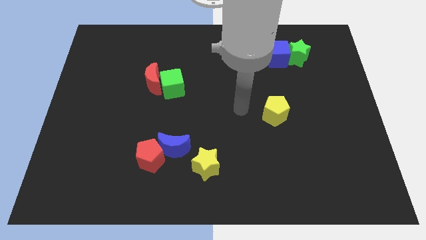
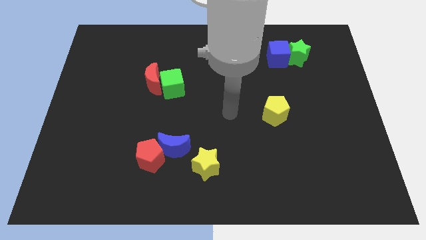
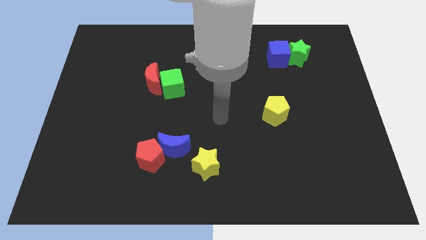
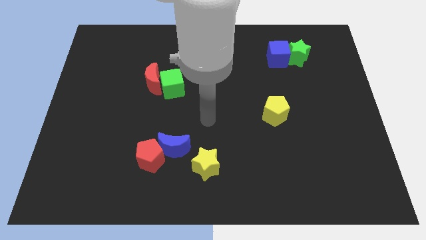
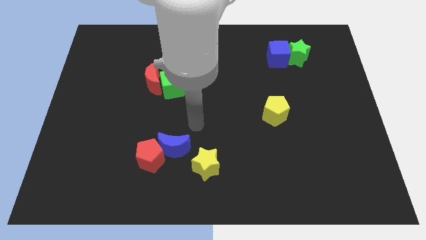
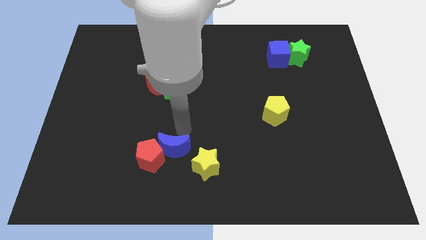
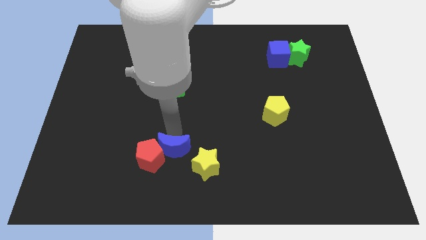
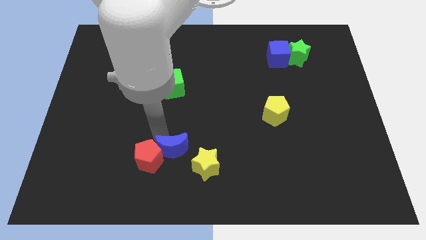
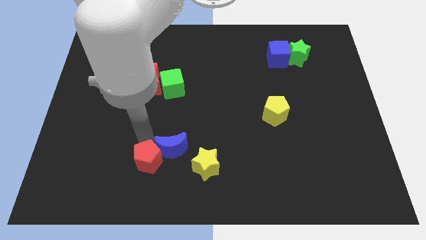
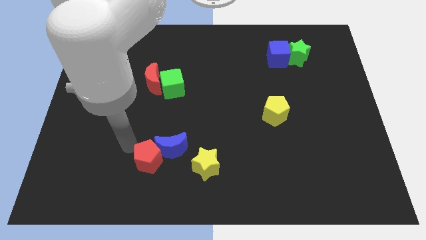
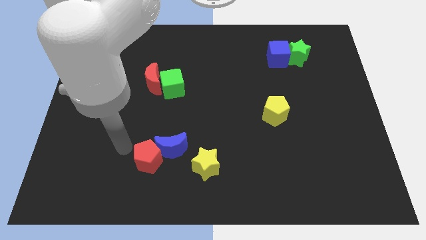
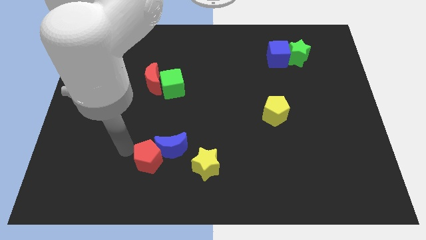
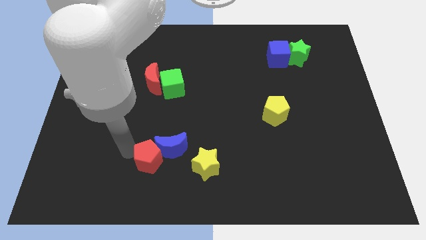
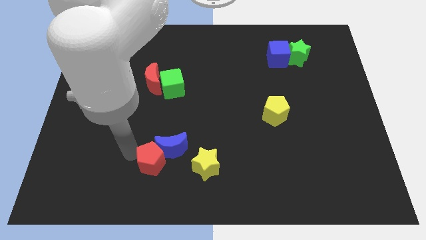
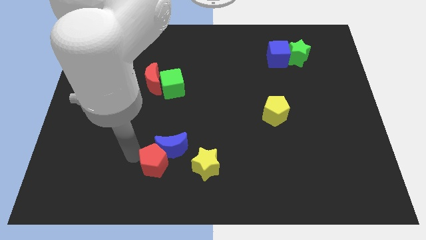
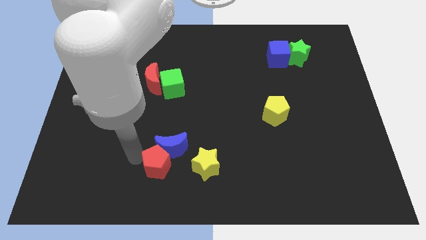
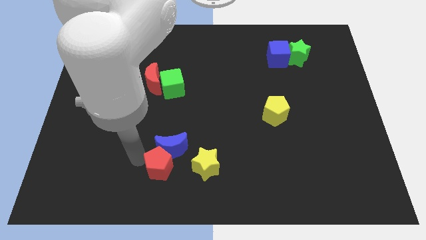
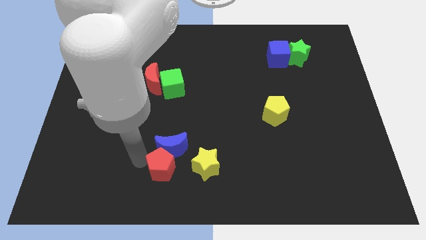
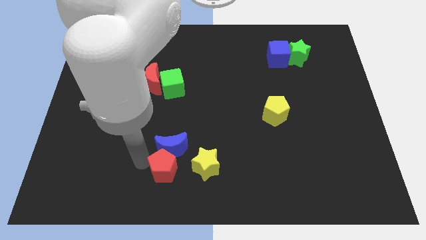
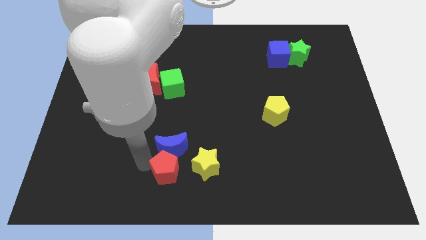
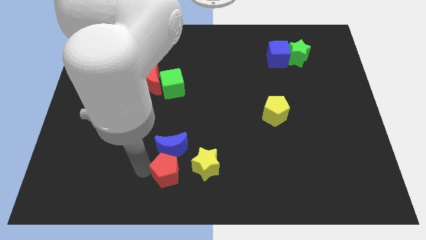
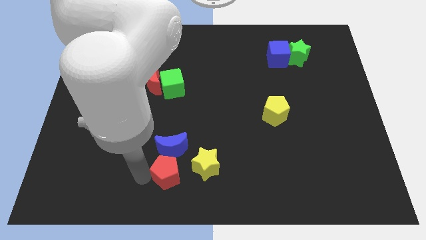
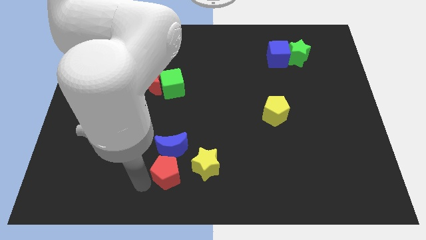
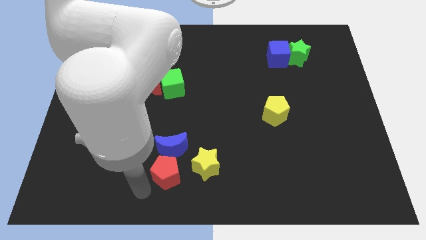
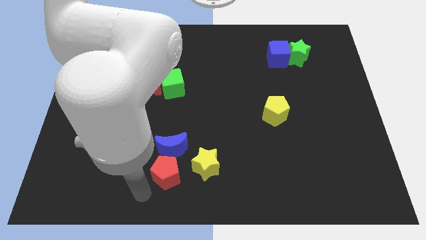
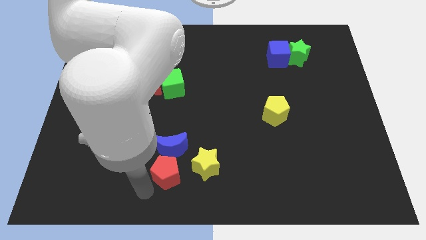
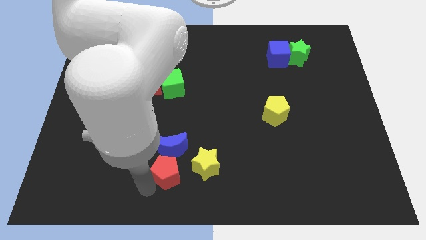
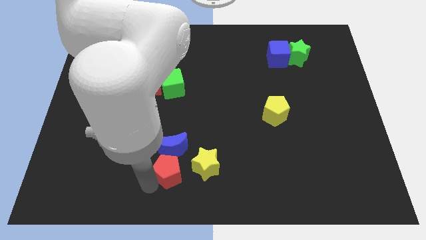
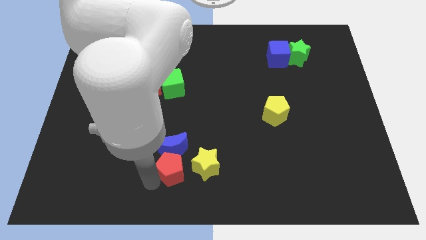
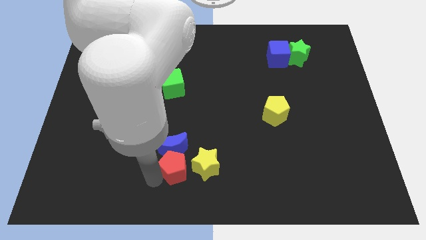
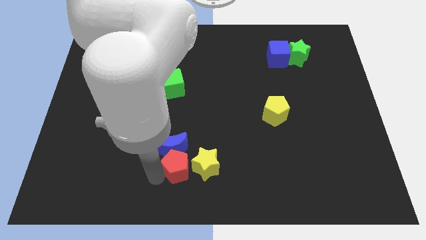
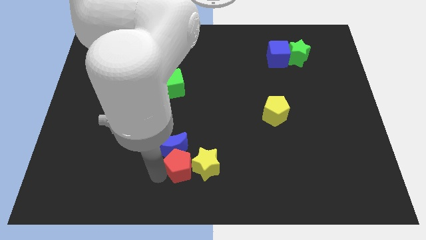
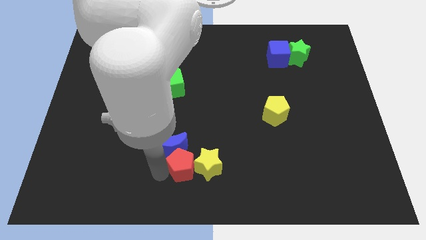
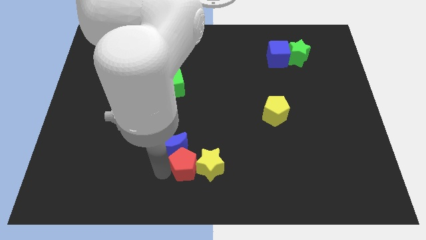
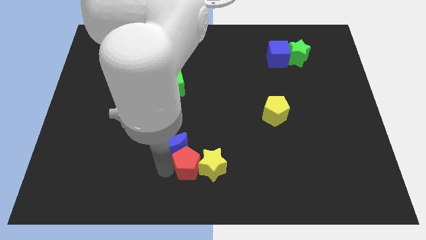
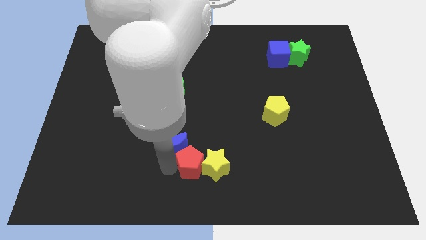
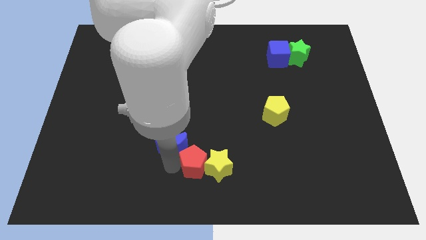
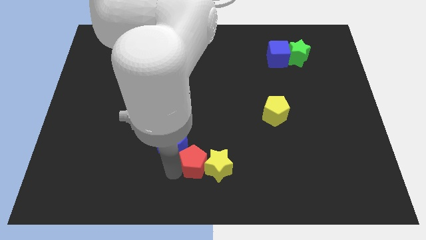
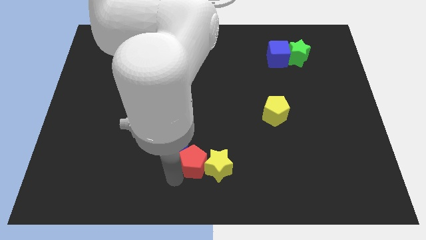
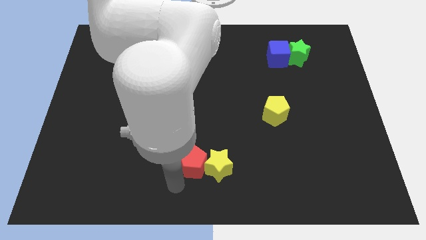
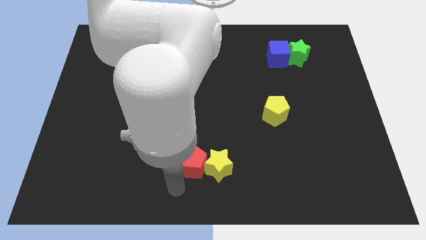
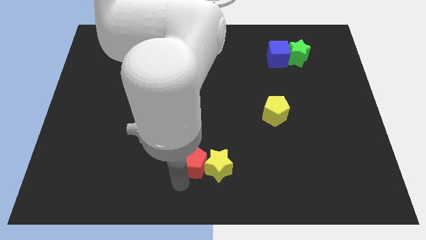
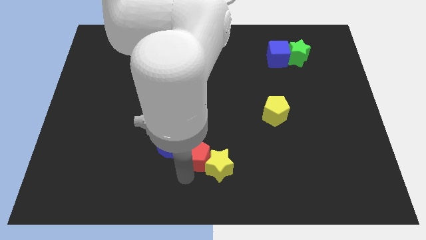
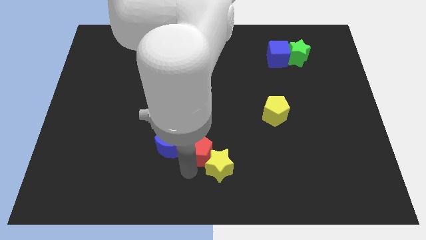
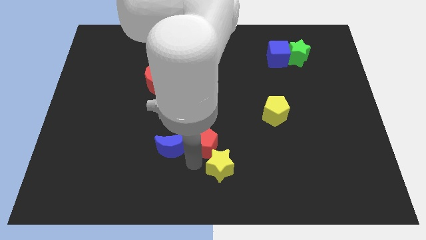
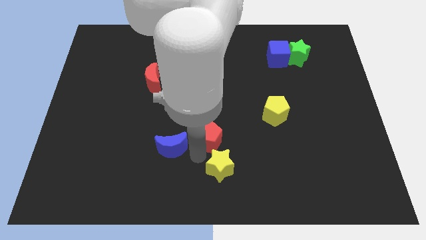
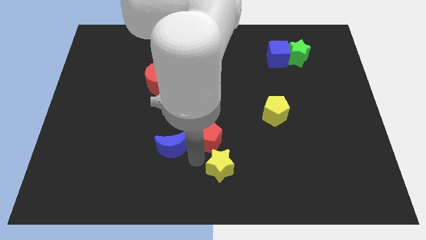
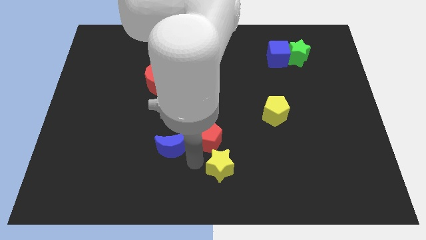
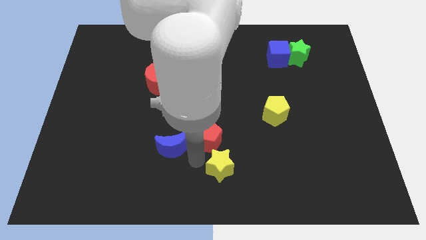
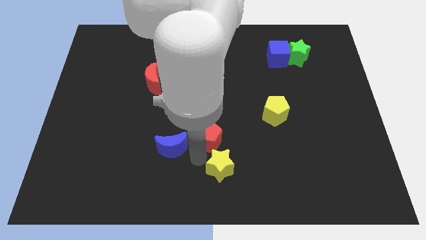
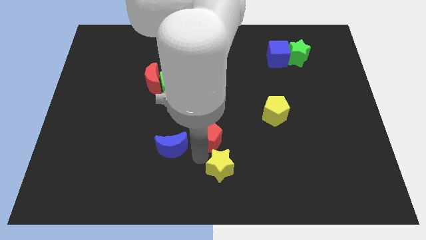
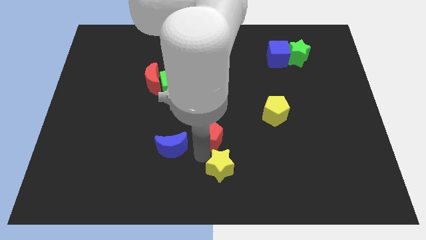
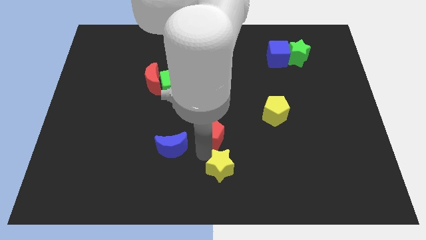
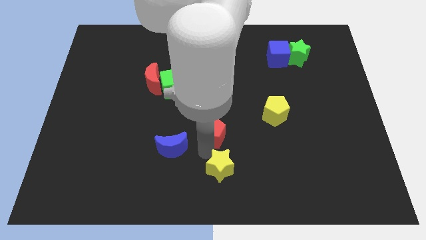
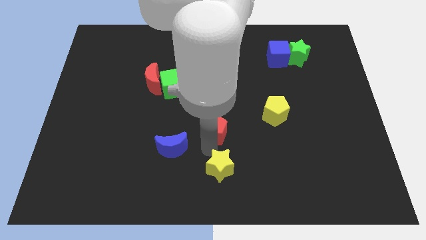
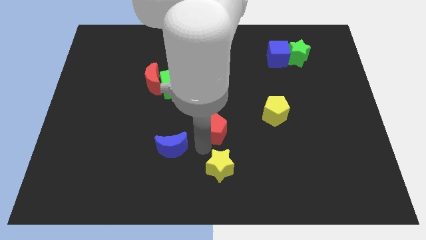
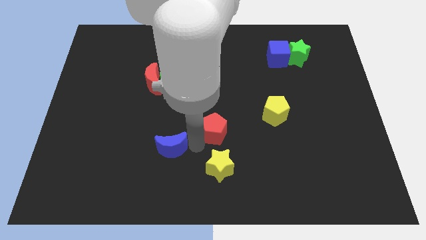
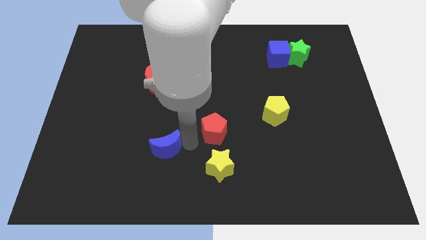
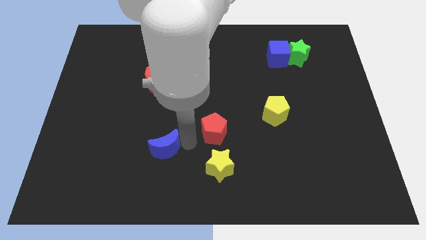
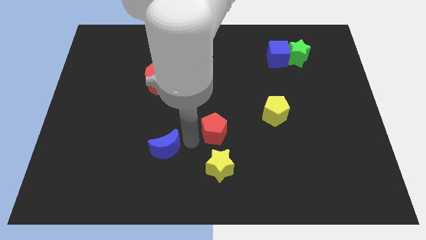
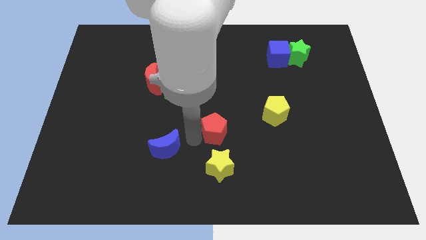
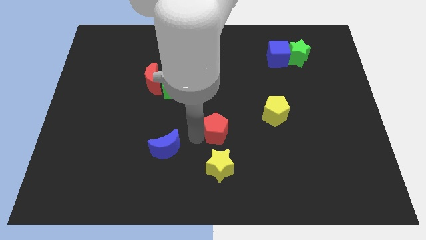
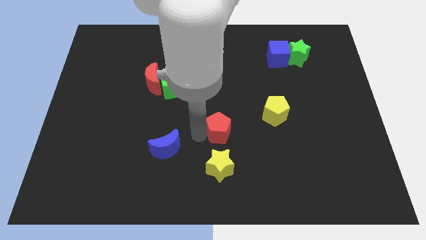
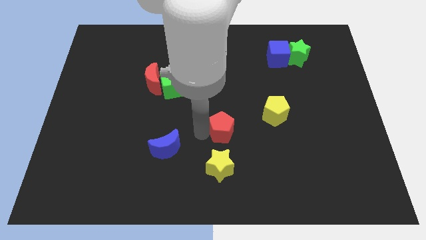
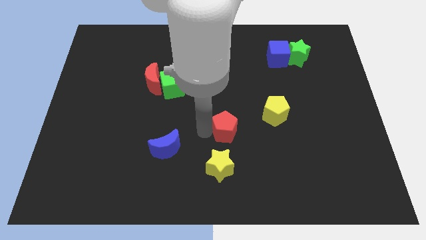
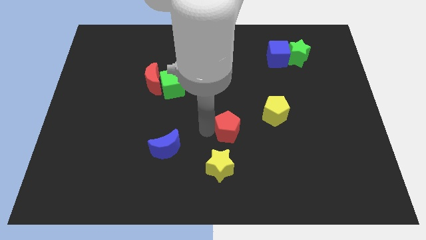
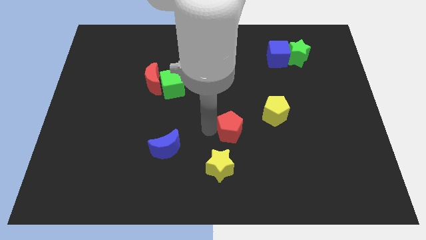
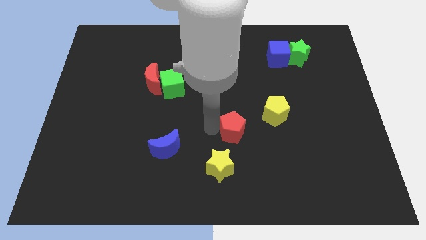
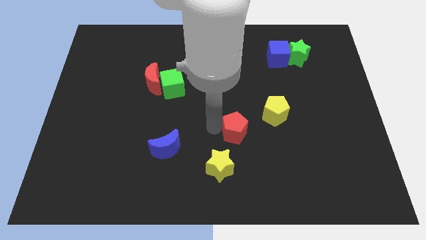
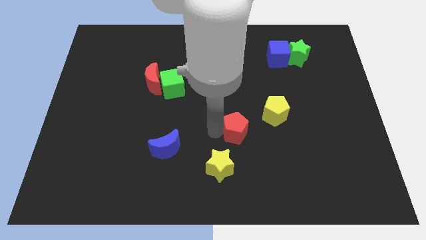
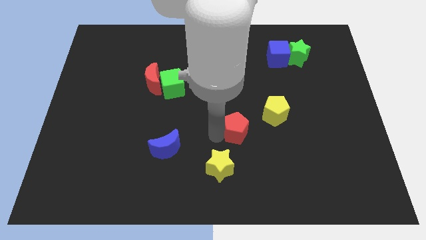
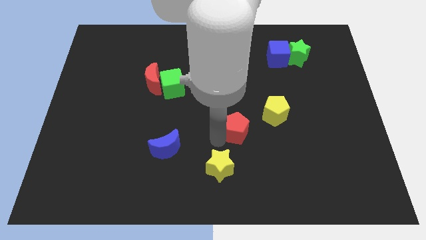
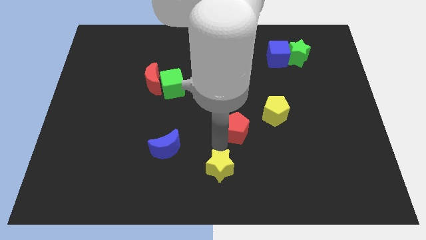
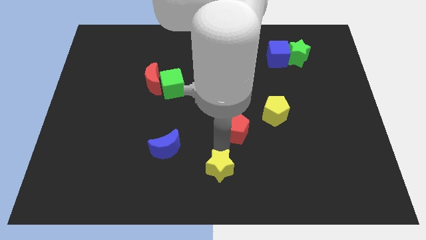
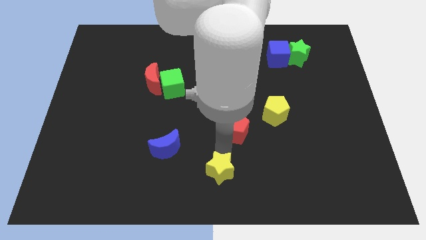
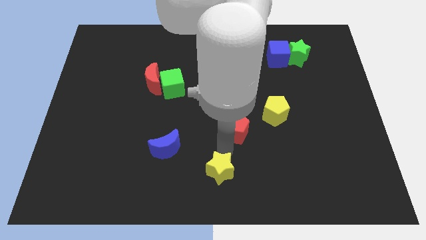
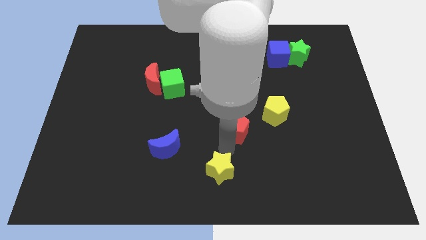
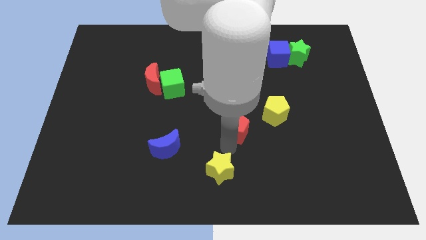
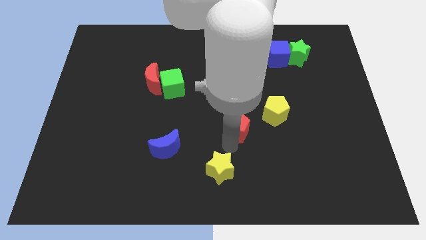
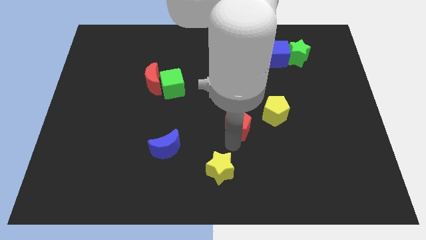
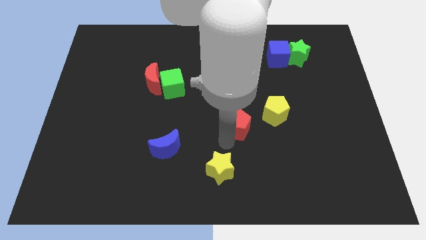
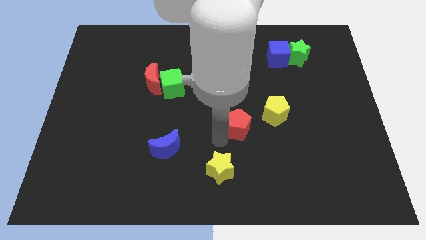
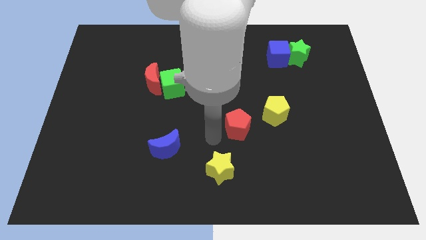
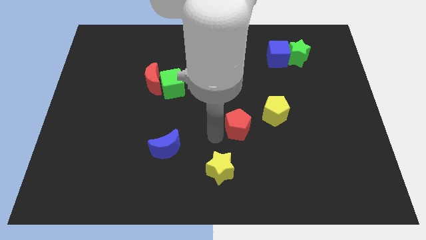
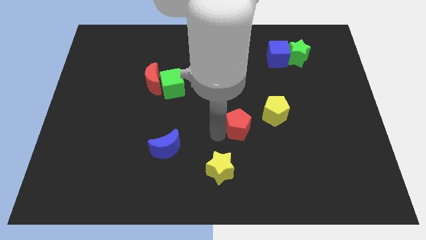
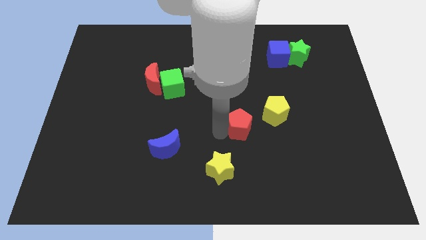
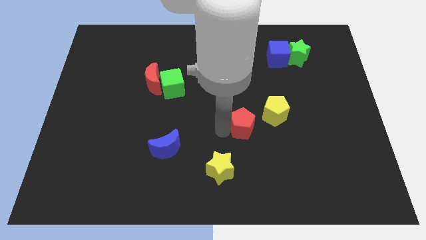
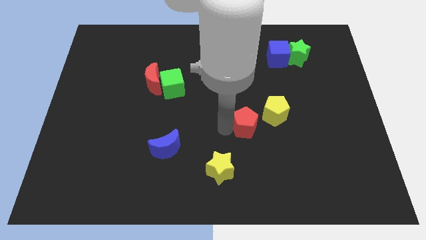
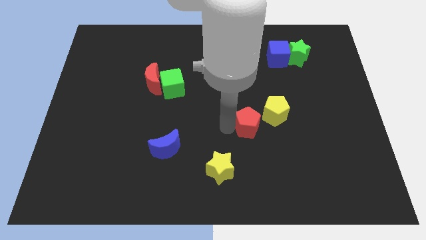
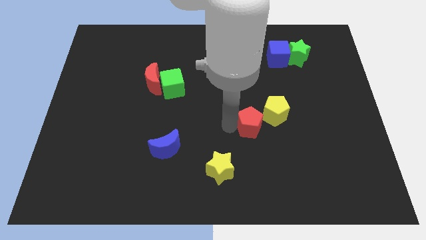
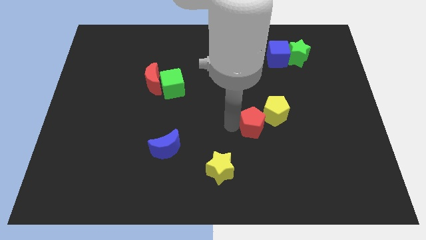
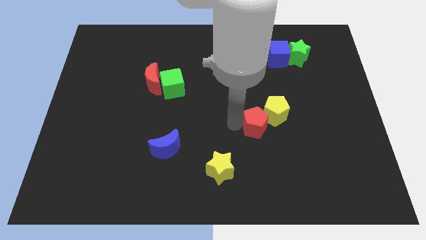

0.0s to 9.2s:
push the red pentagon to the yellow pentagon
